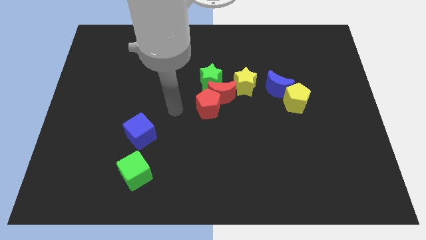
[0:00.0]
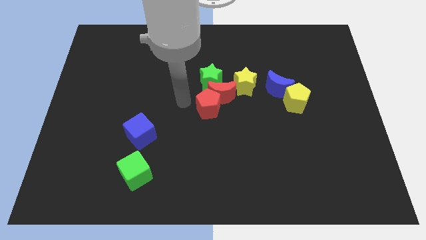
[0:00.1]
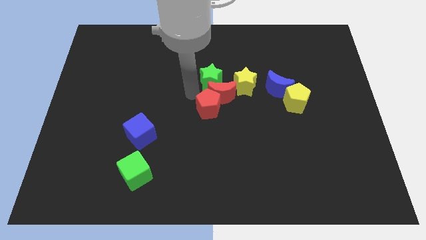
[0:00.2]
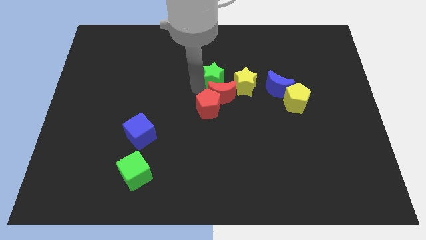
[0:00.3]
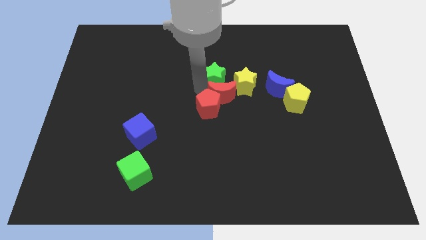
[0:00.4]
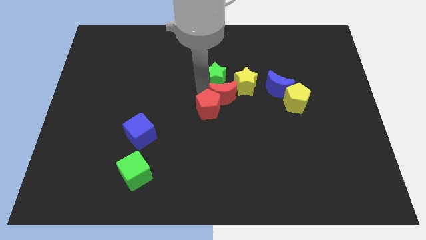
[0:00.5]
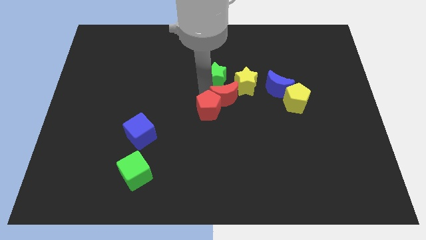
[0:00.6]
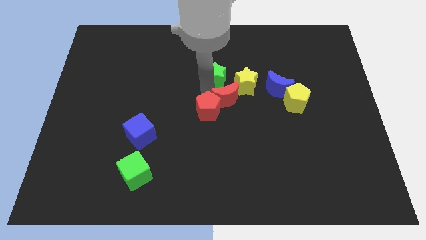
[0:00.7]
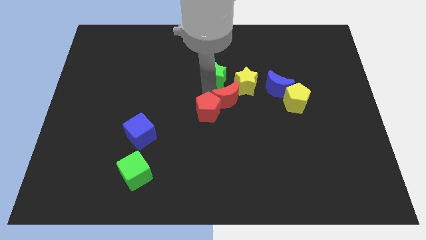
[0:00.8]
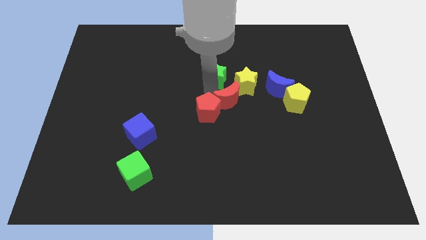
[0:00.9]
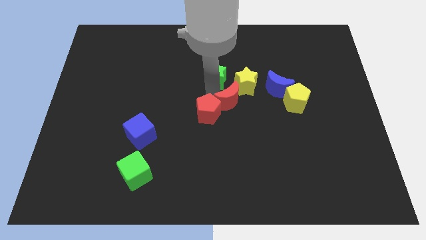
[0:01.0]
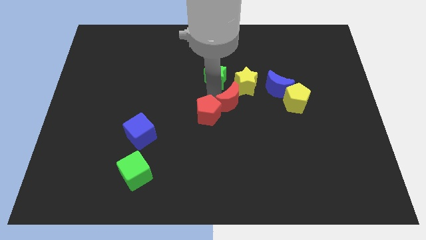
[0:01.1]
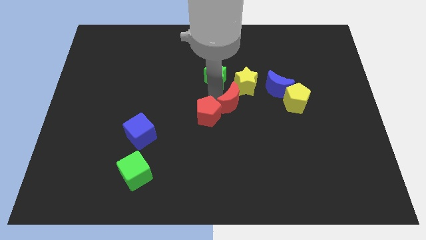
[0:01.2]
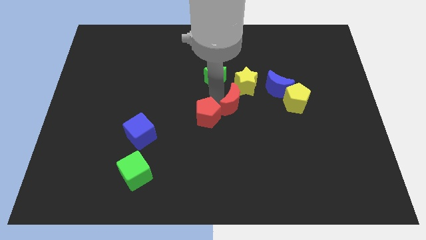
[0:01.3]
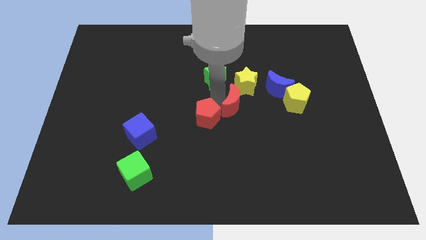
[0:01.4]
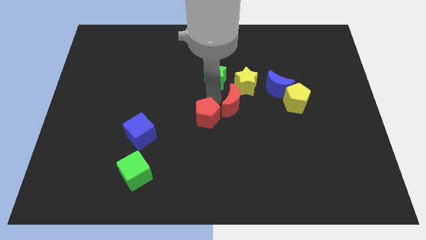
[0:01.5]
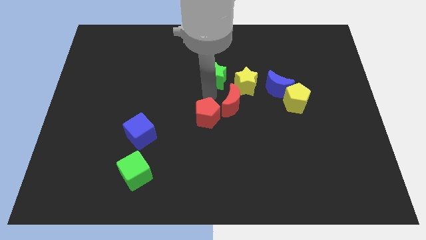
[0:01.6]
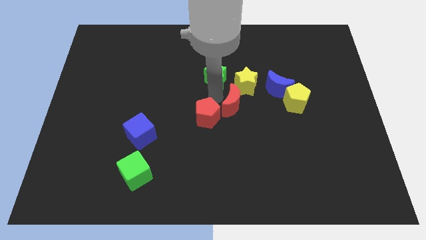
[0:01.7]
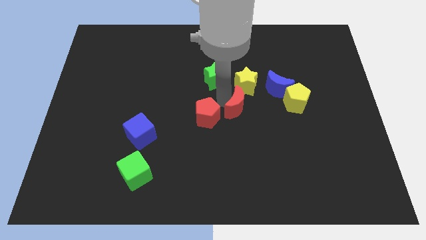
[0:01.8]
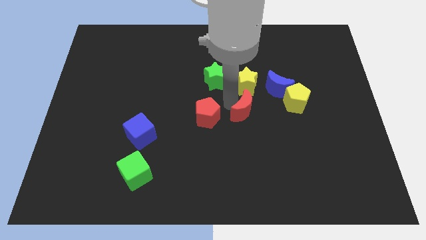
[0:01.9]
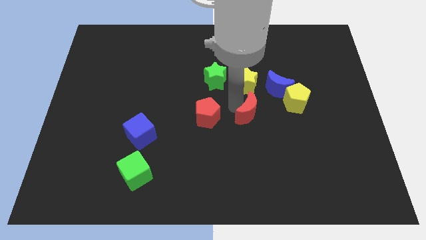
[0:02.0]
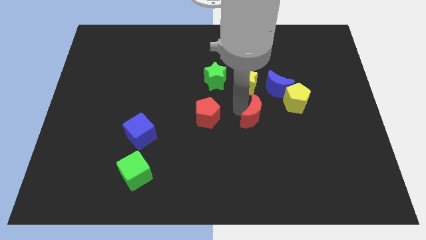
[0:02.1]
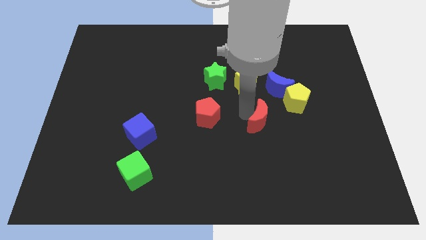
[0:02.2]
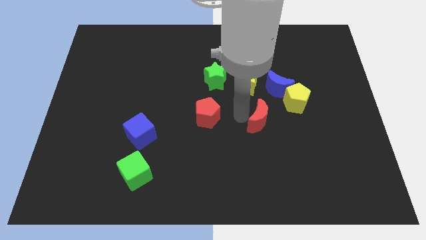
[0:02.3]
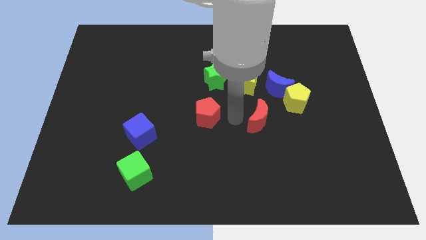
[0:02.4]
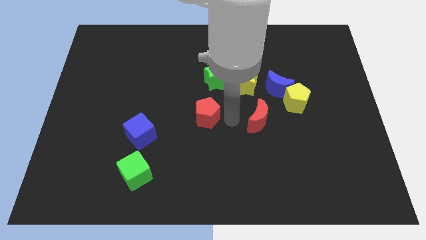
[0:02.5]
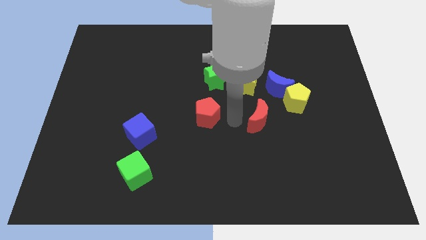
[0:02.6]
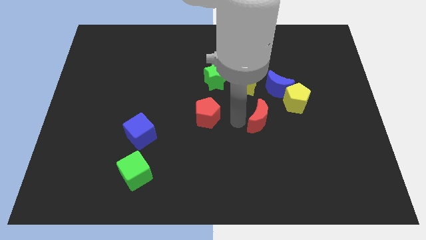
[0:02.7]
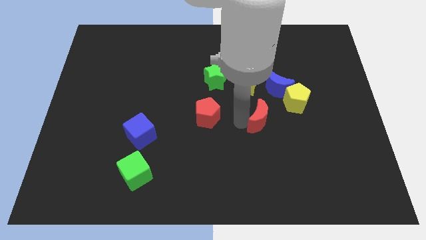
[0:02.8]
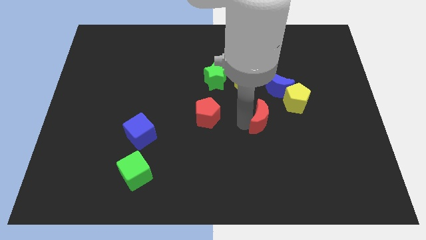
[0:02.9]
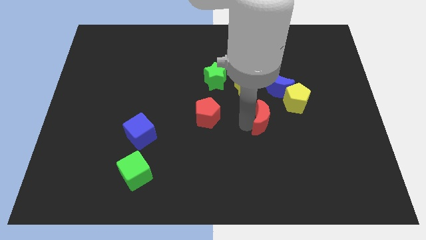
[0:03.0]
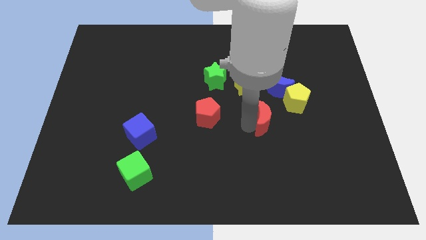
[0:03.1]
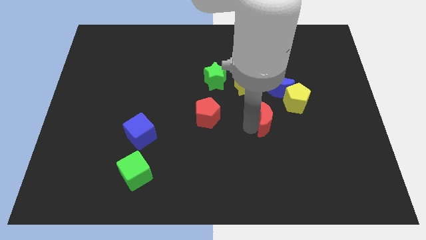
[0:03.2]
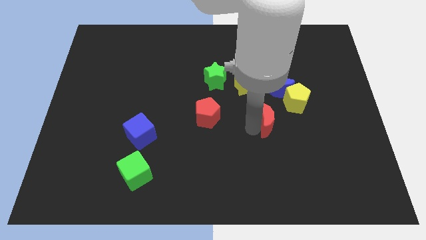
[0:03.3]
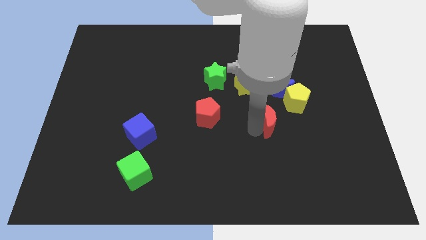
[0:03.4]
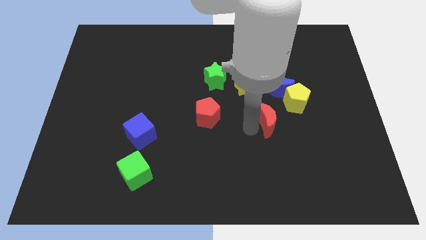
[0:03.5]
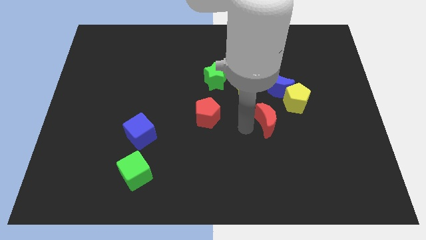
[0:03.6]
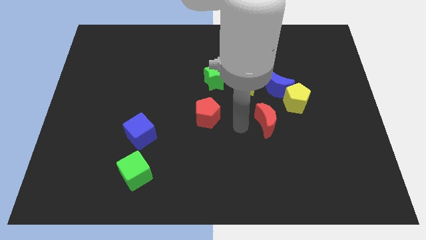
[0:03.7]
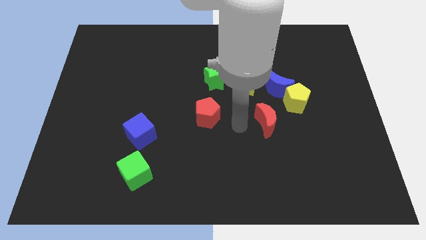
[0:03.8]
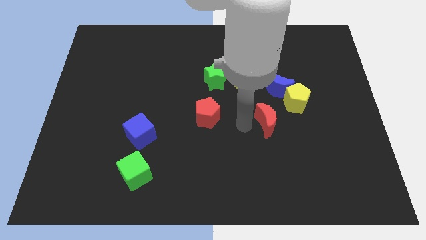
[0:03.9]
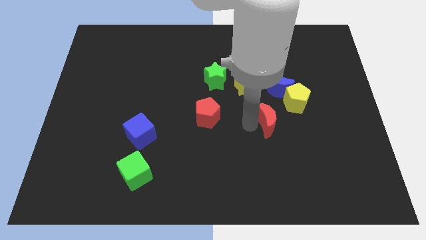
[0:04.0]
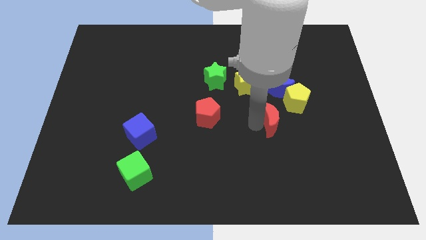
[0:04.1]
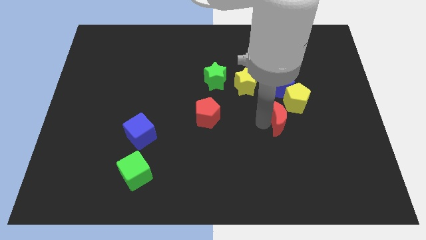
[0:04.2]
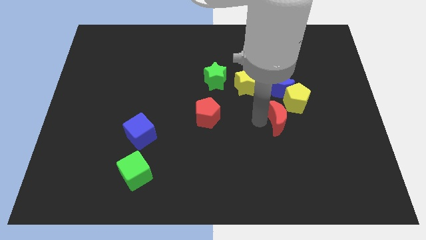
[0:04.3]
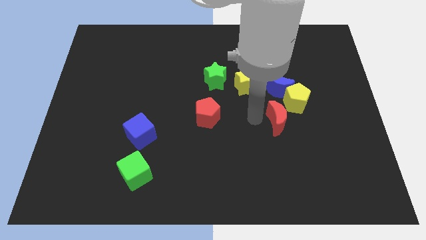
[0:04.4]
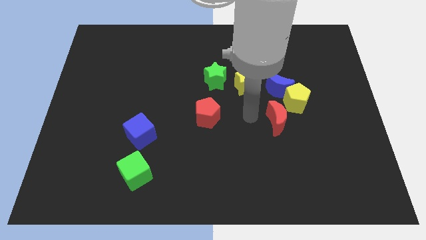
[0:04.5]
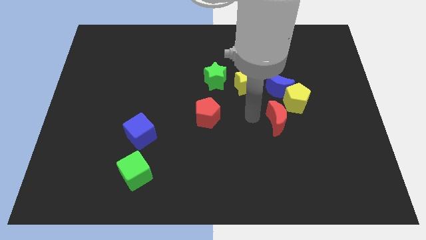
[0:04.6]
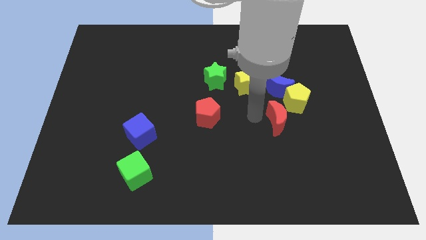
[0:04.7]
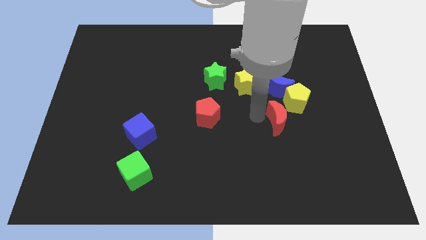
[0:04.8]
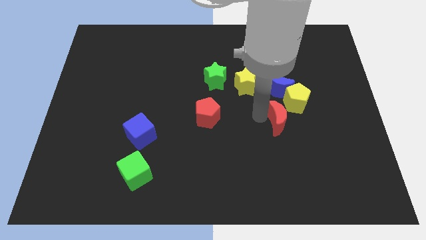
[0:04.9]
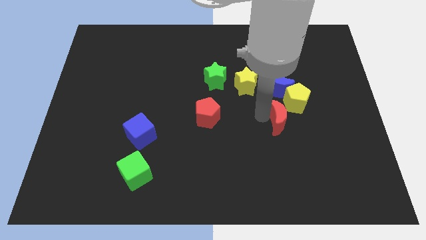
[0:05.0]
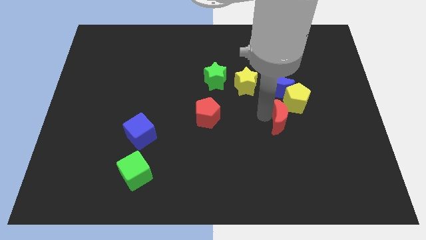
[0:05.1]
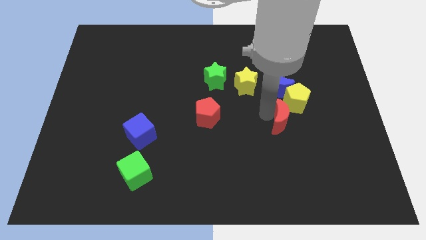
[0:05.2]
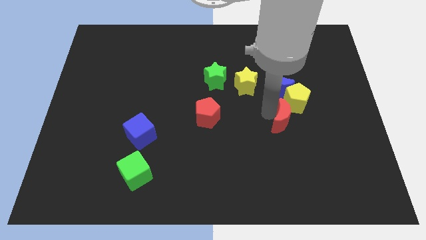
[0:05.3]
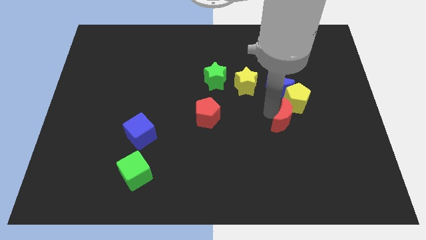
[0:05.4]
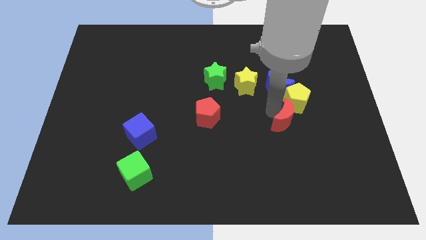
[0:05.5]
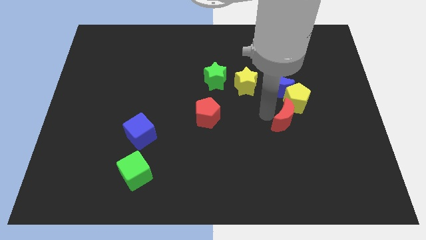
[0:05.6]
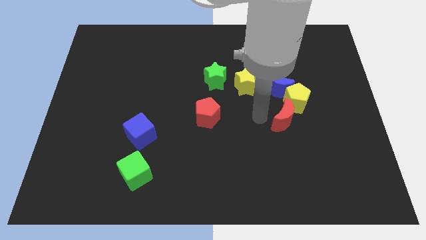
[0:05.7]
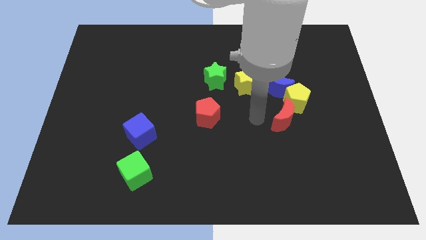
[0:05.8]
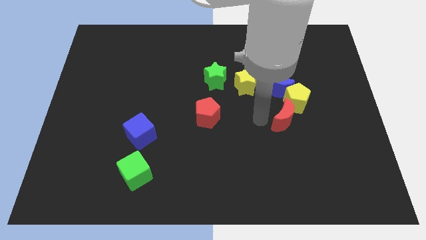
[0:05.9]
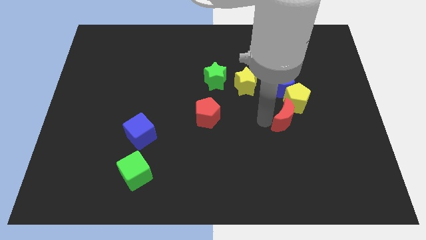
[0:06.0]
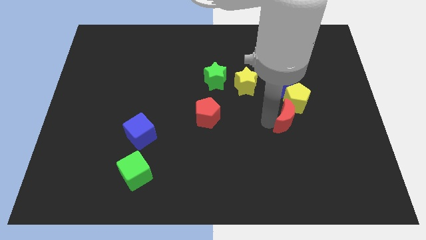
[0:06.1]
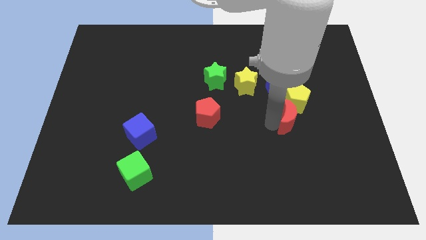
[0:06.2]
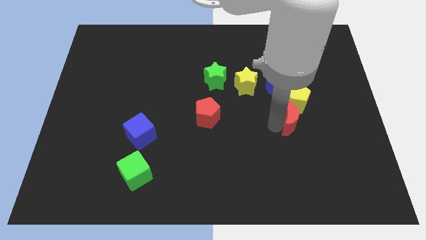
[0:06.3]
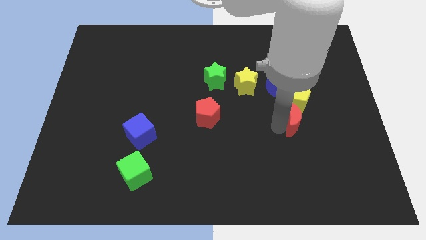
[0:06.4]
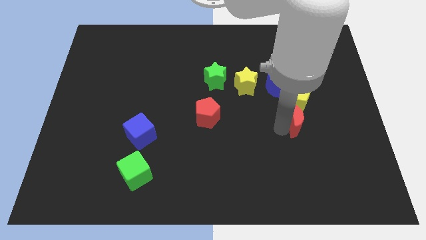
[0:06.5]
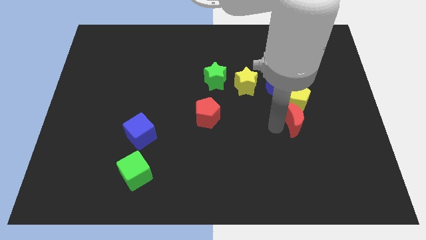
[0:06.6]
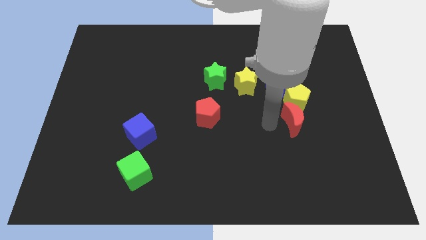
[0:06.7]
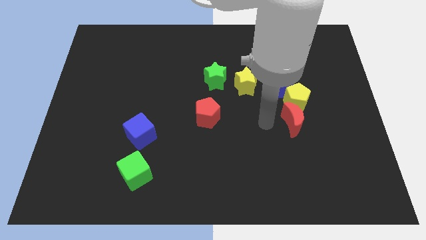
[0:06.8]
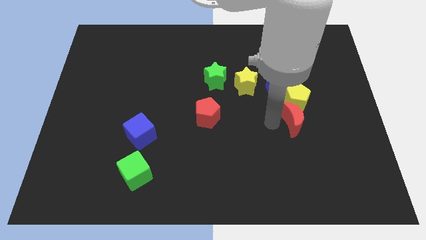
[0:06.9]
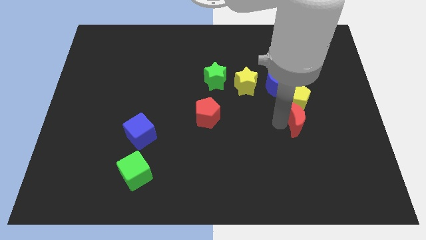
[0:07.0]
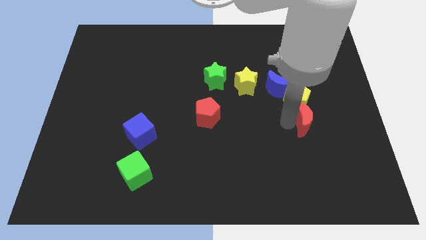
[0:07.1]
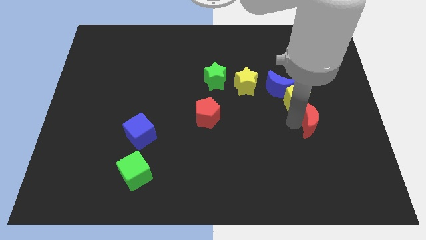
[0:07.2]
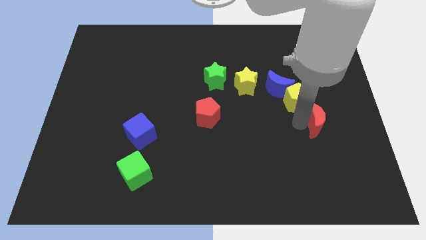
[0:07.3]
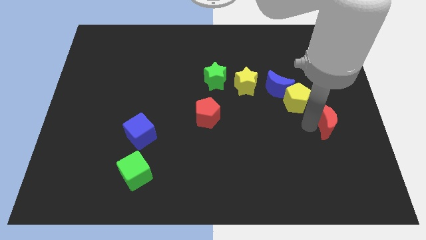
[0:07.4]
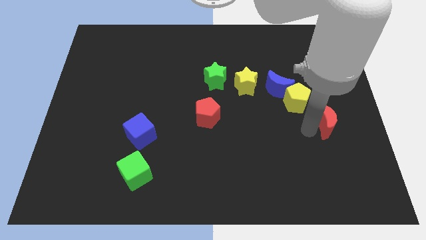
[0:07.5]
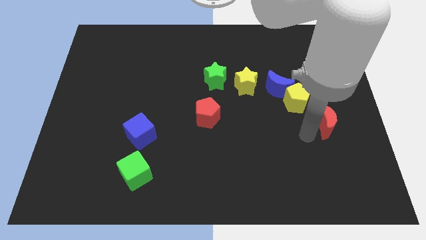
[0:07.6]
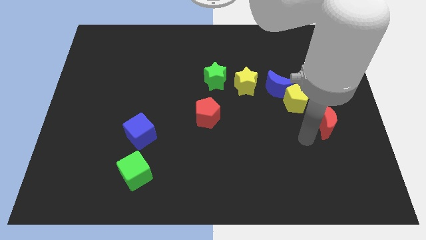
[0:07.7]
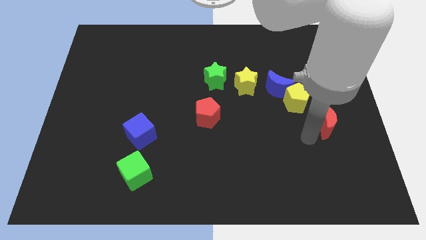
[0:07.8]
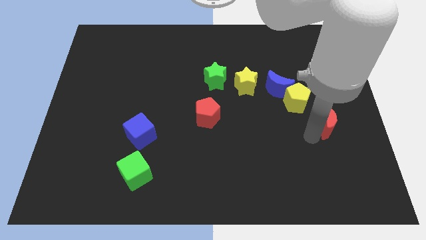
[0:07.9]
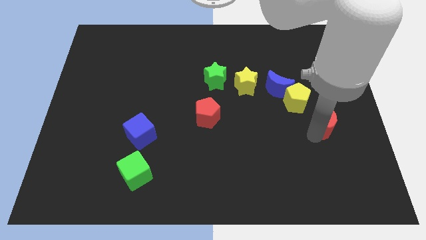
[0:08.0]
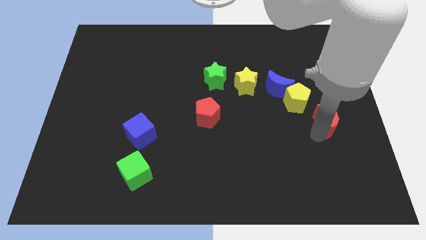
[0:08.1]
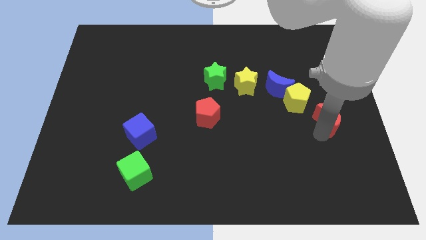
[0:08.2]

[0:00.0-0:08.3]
move the red moon to the right side
